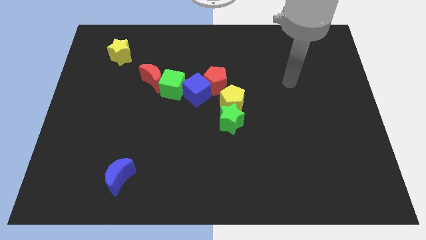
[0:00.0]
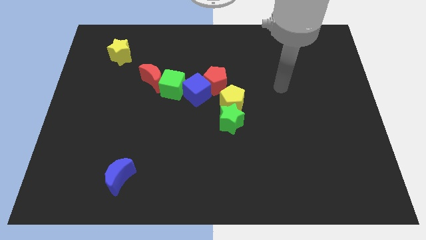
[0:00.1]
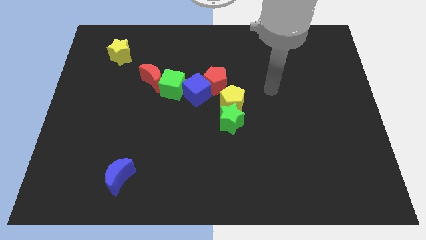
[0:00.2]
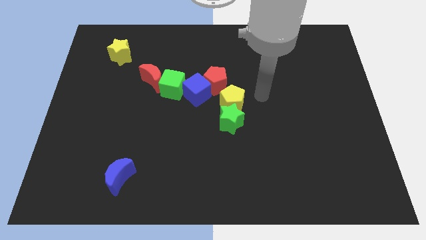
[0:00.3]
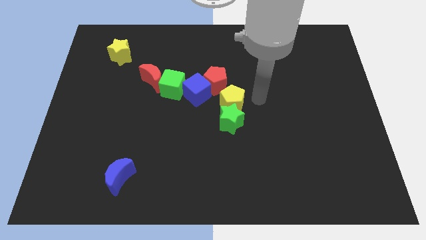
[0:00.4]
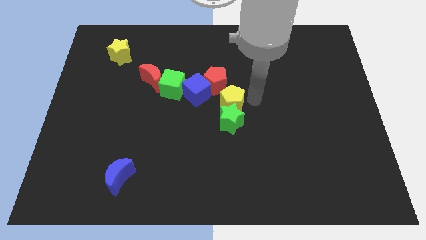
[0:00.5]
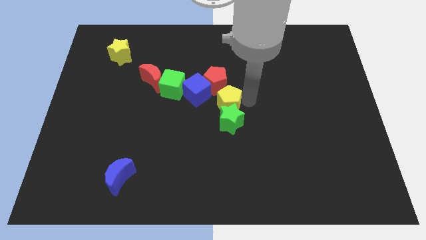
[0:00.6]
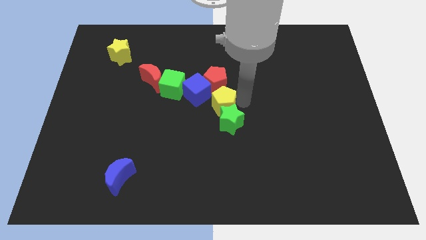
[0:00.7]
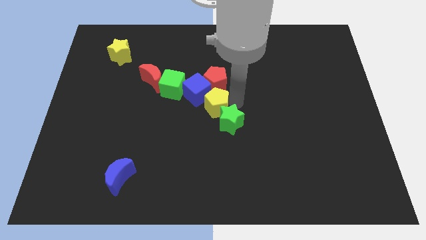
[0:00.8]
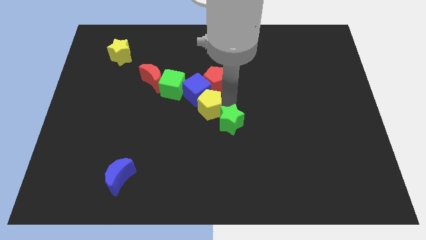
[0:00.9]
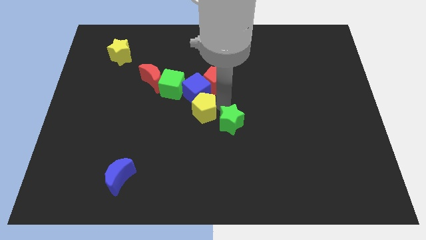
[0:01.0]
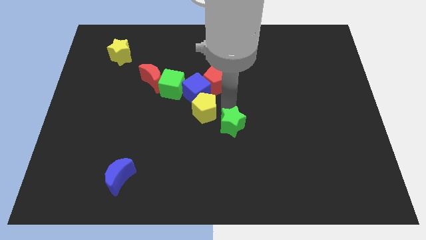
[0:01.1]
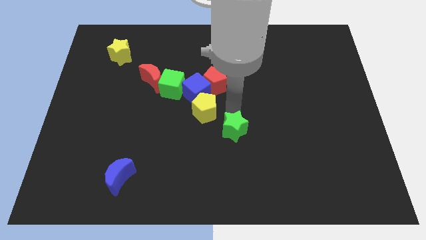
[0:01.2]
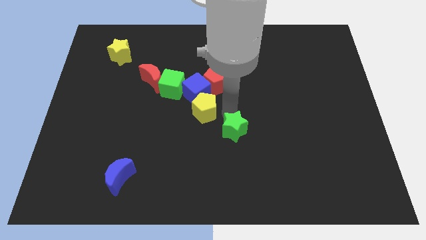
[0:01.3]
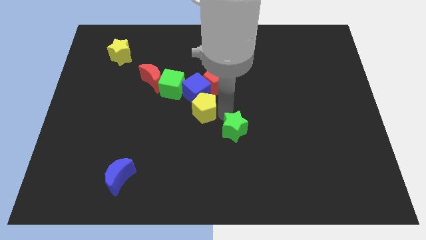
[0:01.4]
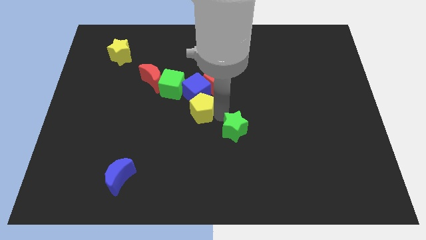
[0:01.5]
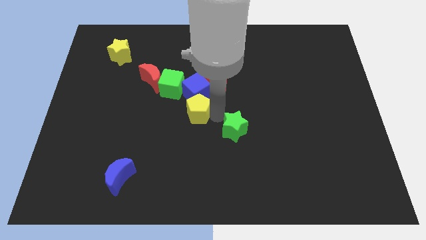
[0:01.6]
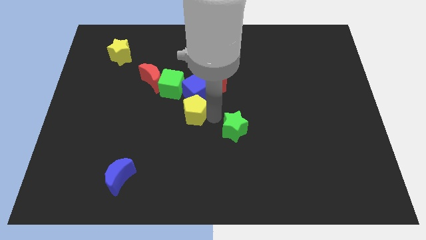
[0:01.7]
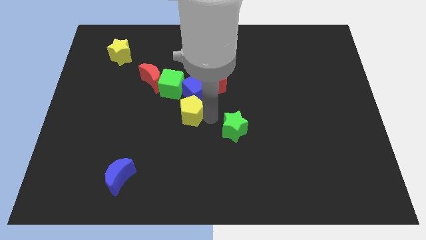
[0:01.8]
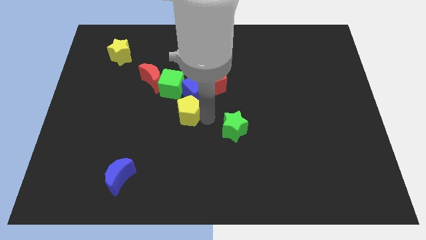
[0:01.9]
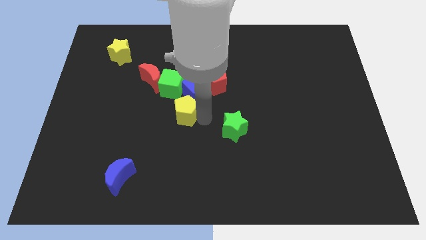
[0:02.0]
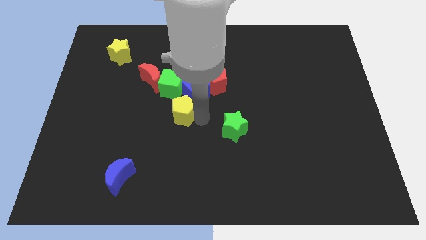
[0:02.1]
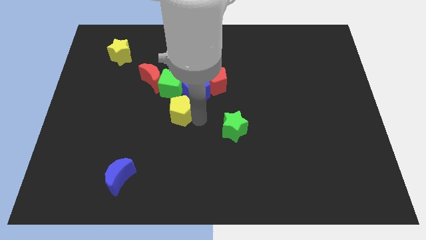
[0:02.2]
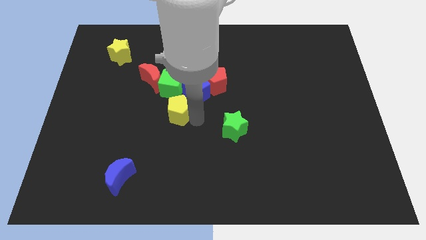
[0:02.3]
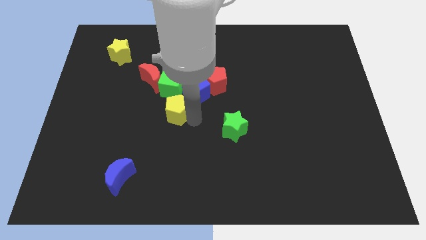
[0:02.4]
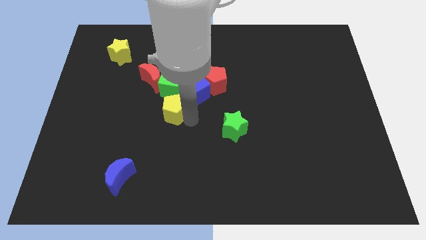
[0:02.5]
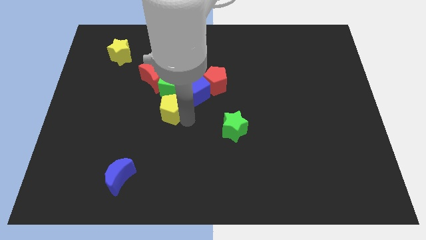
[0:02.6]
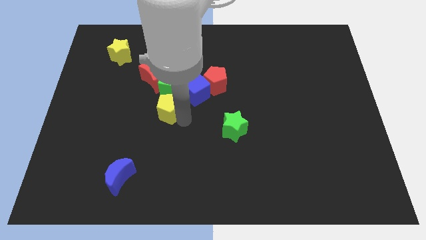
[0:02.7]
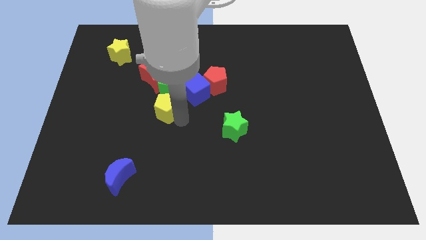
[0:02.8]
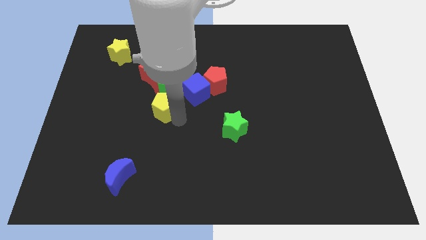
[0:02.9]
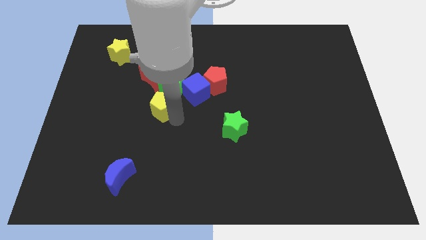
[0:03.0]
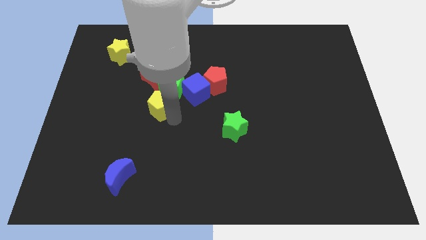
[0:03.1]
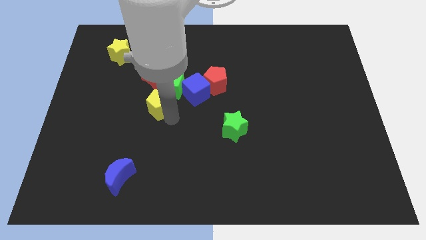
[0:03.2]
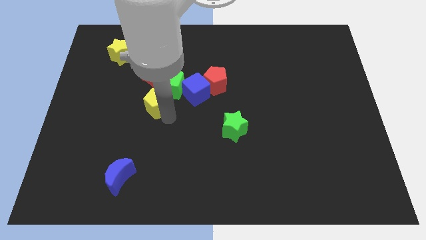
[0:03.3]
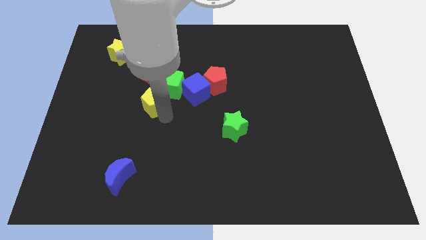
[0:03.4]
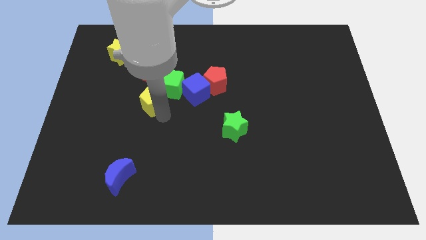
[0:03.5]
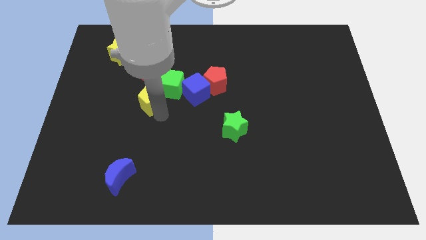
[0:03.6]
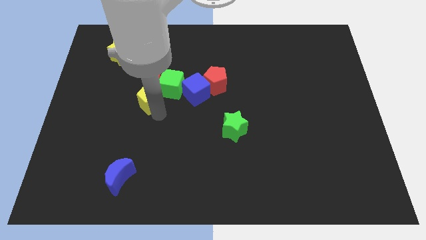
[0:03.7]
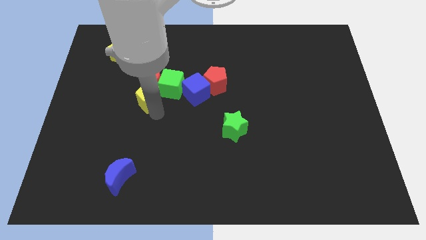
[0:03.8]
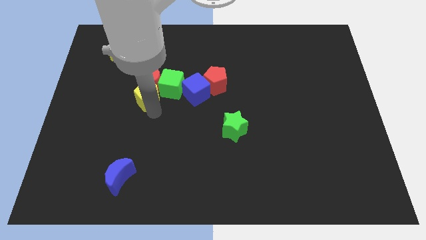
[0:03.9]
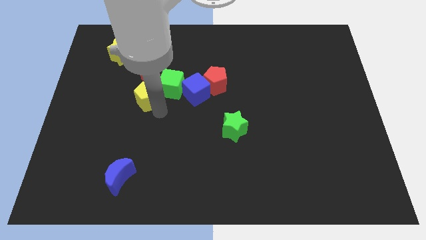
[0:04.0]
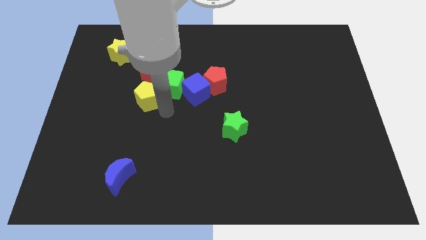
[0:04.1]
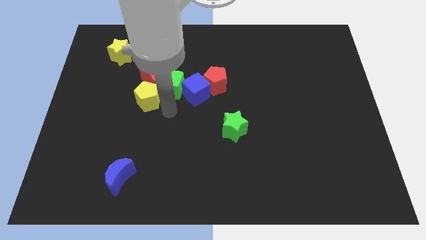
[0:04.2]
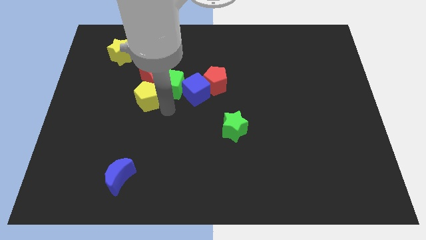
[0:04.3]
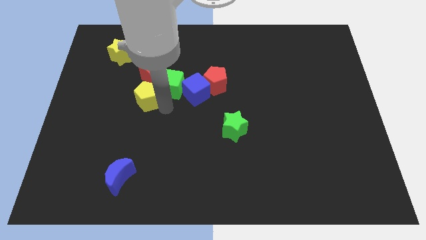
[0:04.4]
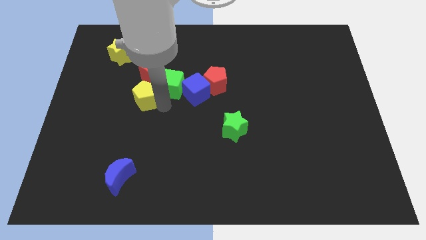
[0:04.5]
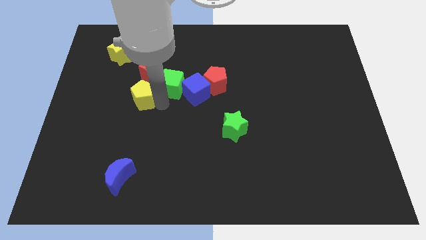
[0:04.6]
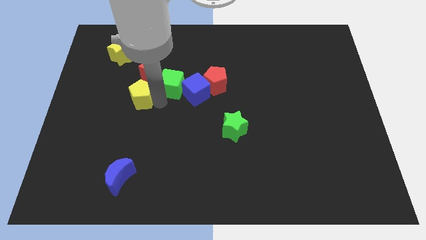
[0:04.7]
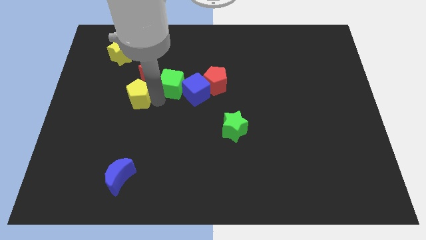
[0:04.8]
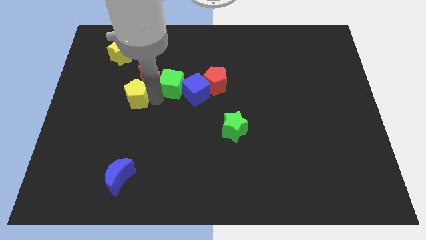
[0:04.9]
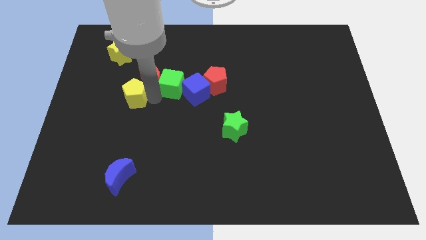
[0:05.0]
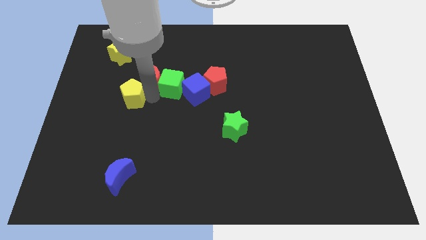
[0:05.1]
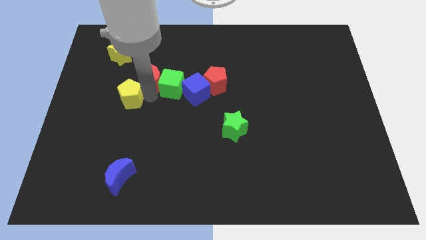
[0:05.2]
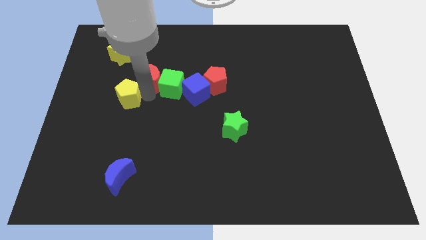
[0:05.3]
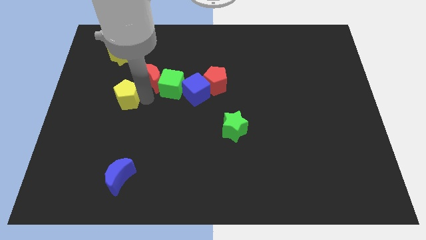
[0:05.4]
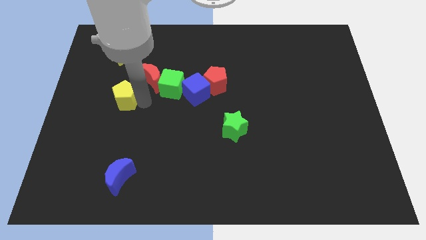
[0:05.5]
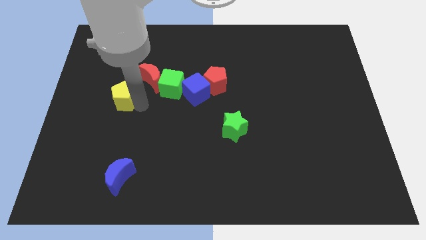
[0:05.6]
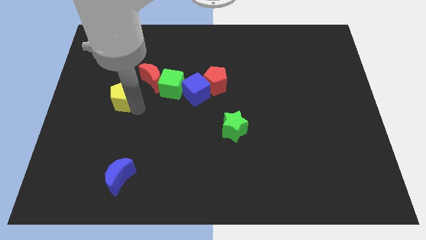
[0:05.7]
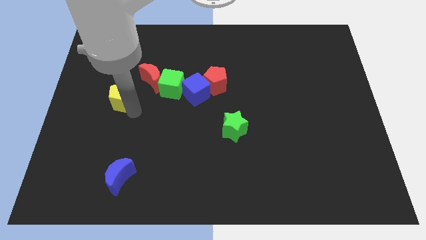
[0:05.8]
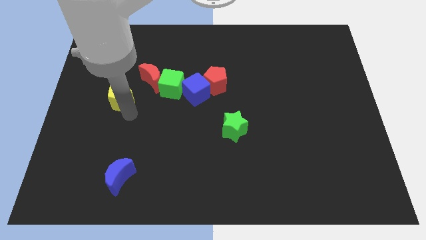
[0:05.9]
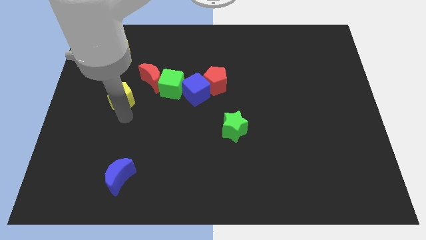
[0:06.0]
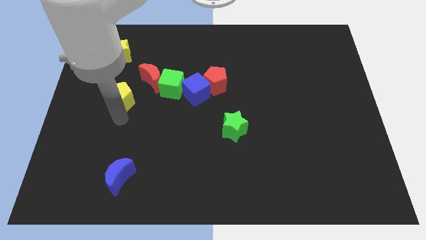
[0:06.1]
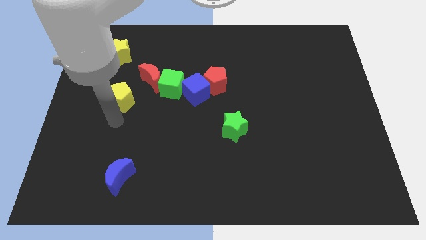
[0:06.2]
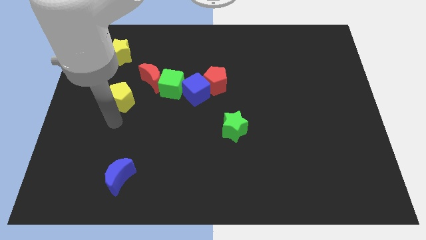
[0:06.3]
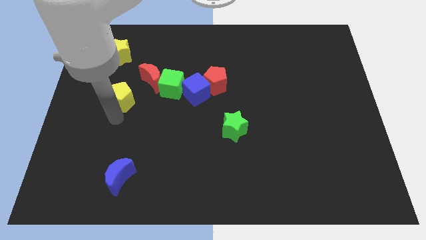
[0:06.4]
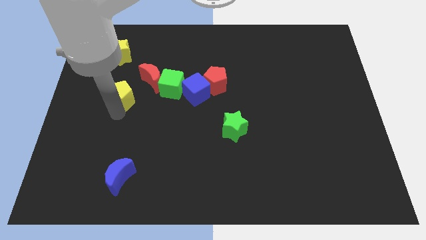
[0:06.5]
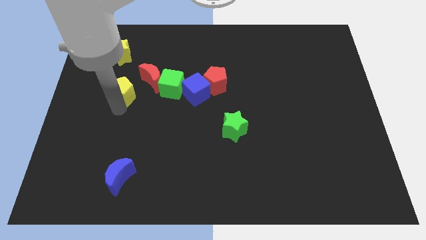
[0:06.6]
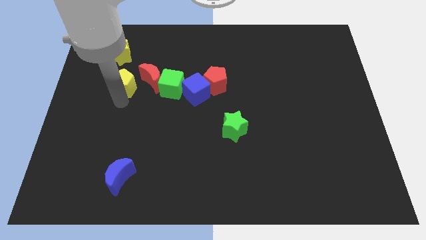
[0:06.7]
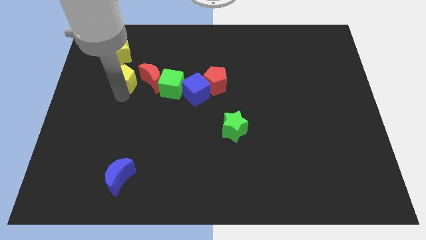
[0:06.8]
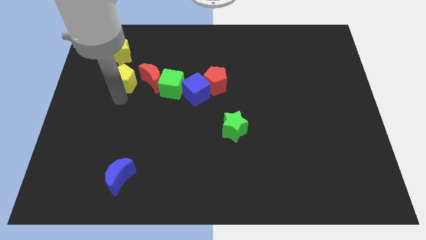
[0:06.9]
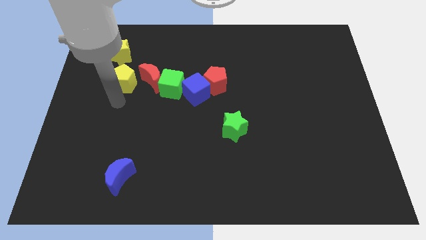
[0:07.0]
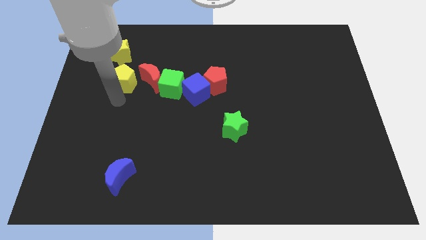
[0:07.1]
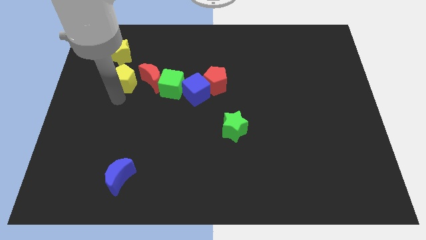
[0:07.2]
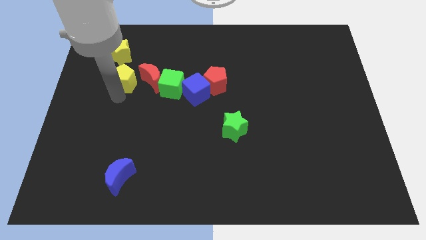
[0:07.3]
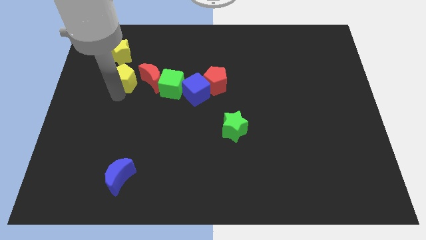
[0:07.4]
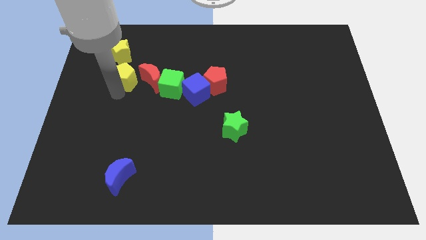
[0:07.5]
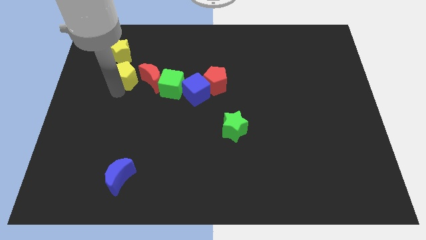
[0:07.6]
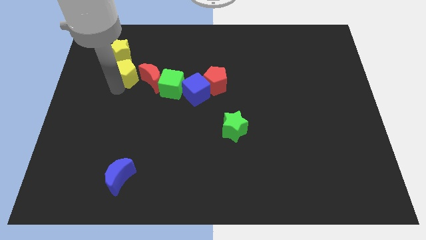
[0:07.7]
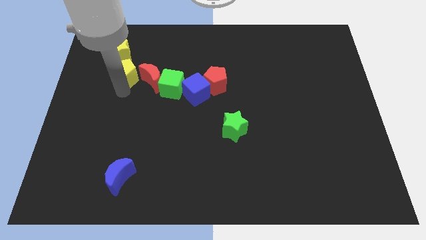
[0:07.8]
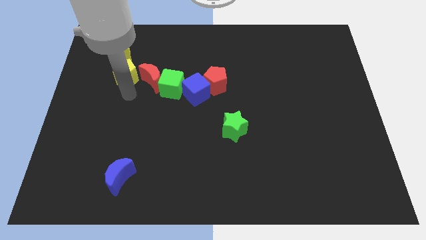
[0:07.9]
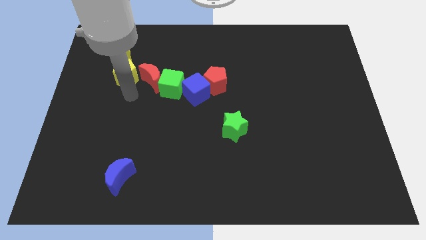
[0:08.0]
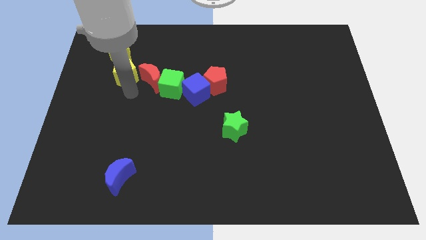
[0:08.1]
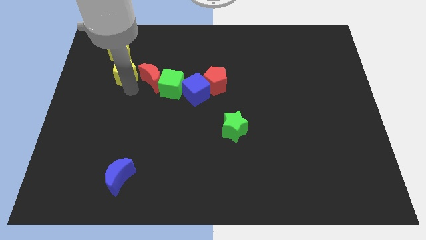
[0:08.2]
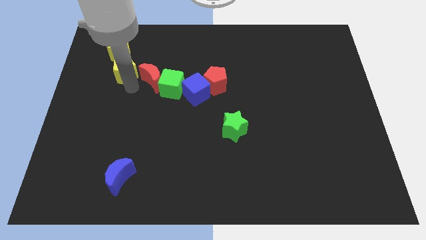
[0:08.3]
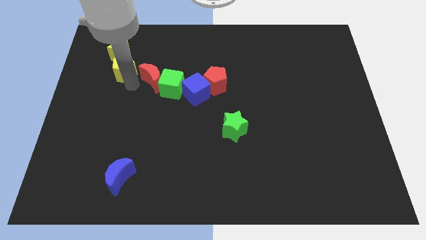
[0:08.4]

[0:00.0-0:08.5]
put the yellow pentagon next to the yellow star
